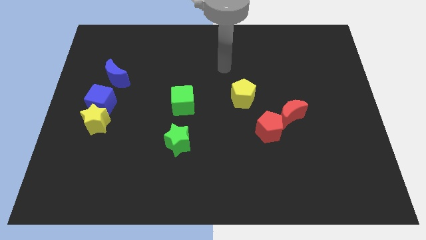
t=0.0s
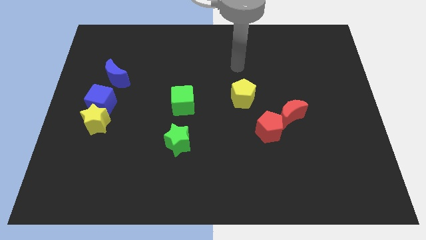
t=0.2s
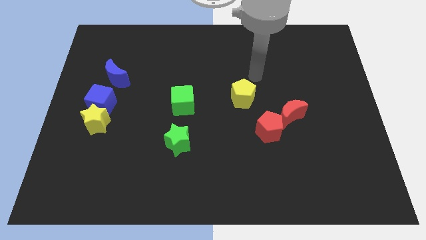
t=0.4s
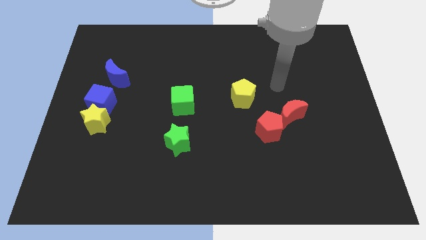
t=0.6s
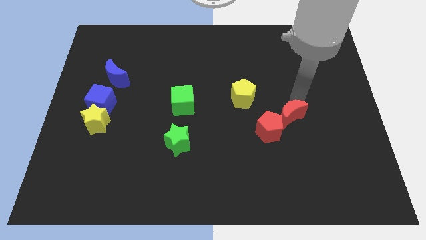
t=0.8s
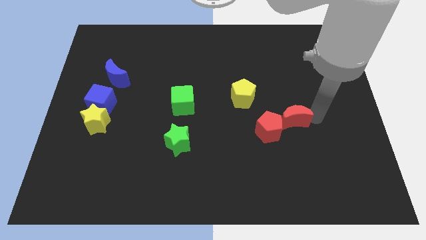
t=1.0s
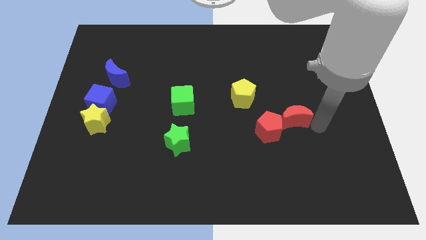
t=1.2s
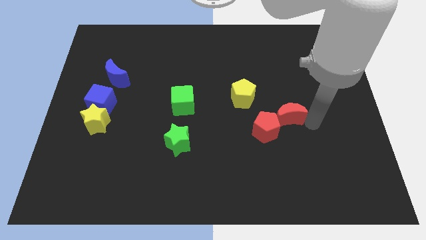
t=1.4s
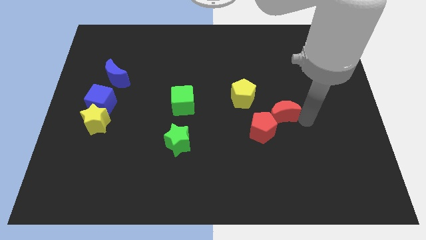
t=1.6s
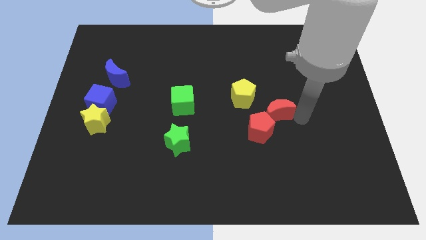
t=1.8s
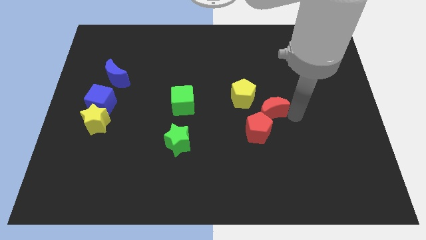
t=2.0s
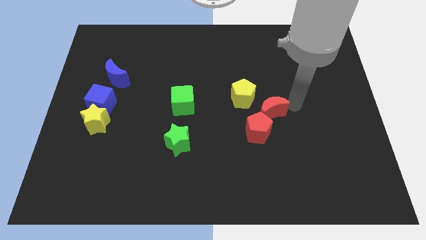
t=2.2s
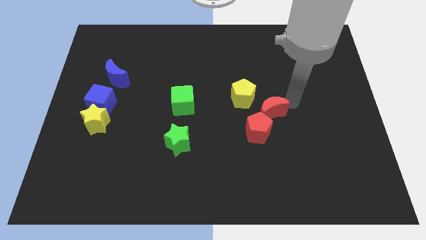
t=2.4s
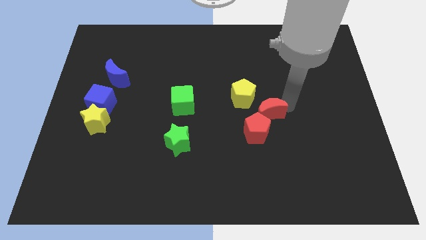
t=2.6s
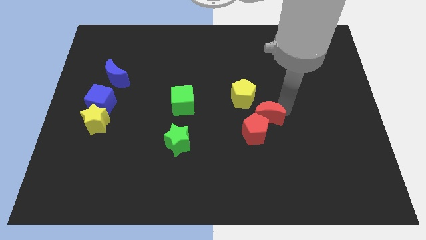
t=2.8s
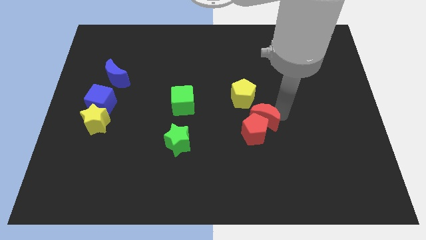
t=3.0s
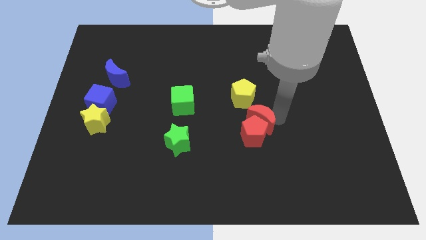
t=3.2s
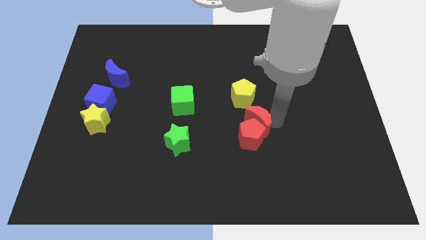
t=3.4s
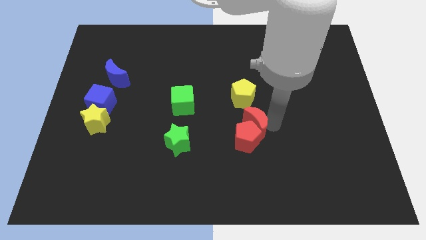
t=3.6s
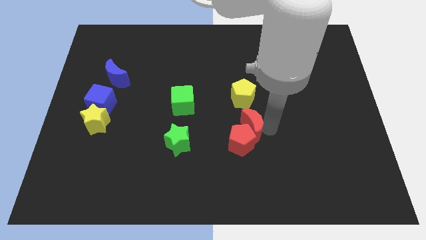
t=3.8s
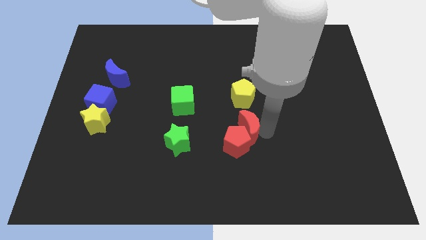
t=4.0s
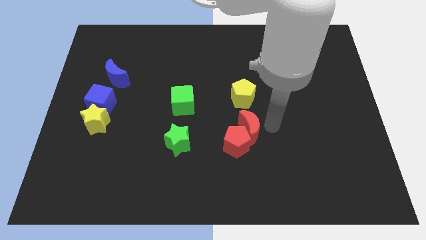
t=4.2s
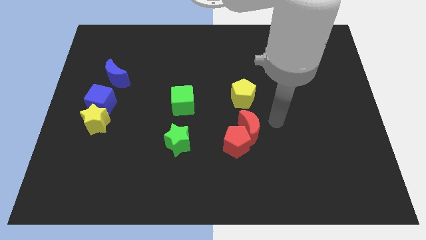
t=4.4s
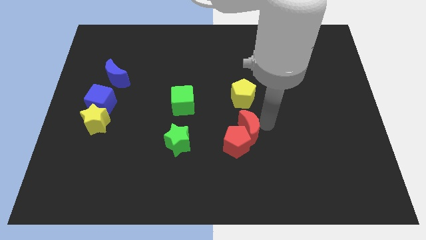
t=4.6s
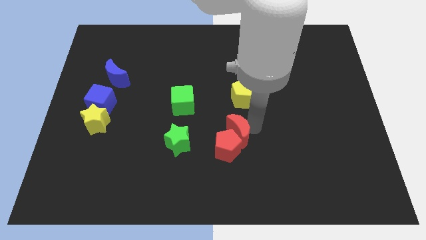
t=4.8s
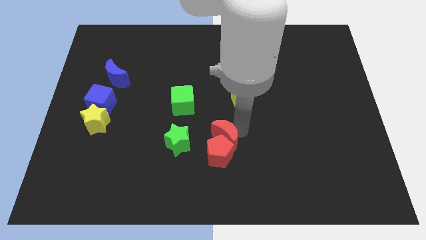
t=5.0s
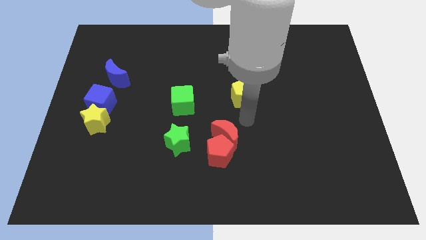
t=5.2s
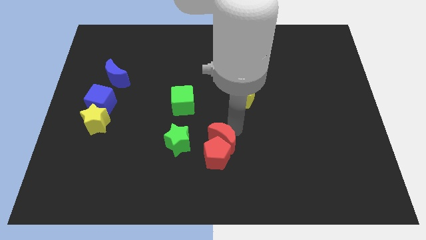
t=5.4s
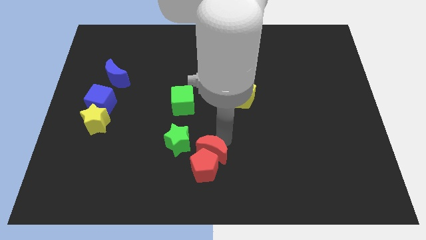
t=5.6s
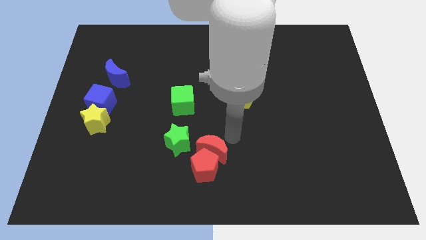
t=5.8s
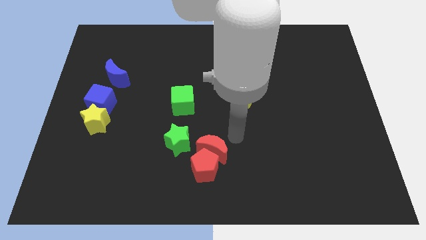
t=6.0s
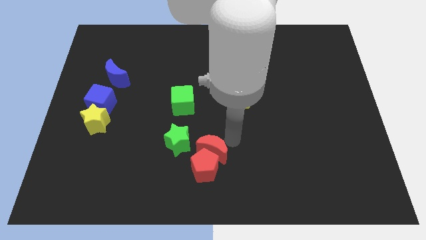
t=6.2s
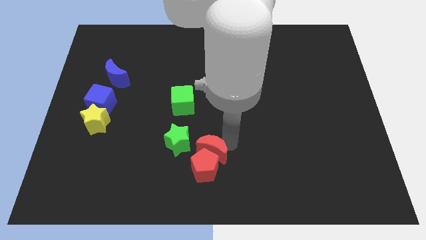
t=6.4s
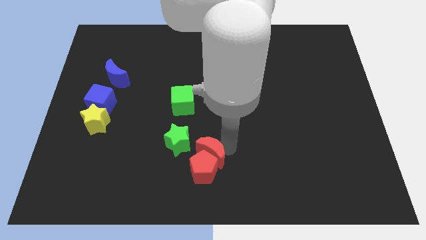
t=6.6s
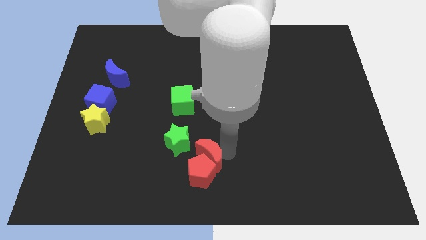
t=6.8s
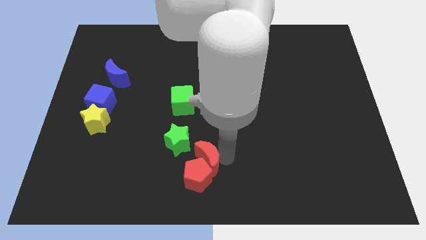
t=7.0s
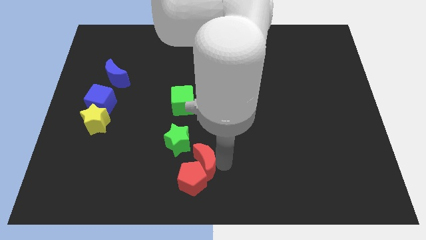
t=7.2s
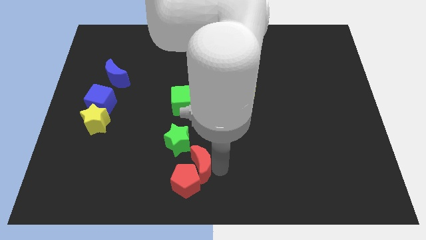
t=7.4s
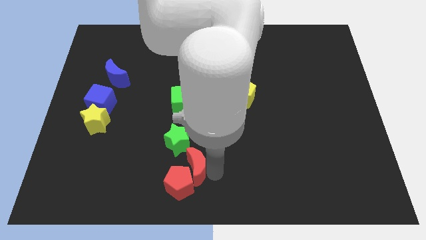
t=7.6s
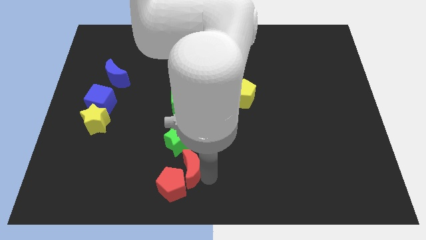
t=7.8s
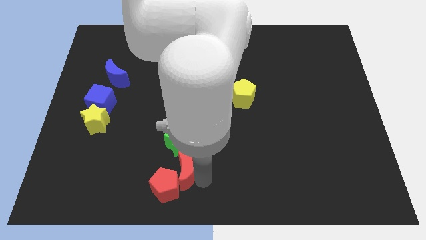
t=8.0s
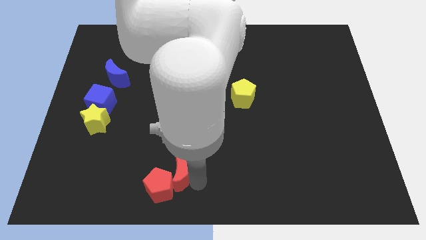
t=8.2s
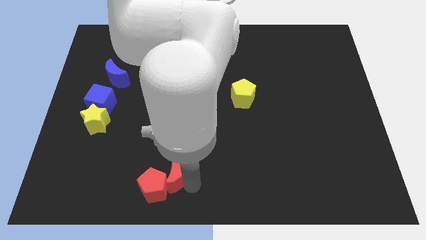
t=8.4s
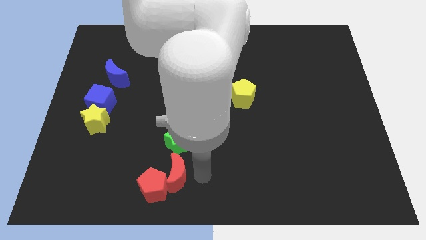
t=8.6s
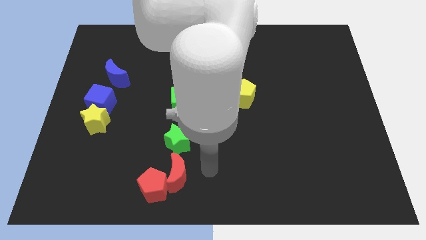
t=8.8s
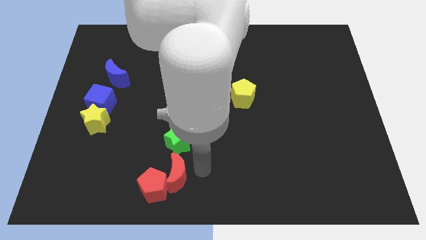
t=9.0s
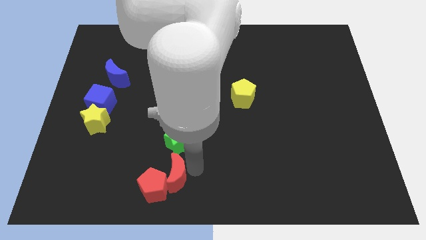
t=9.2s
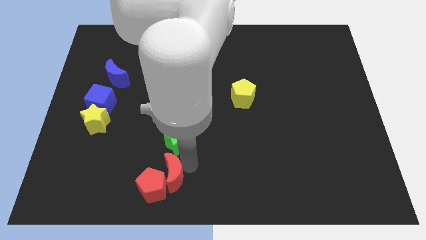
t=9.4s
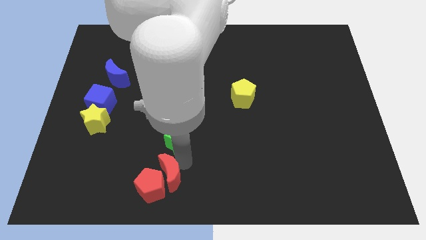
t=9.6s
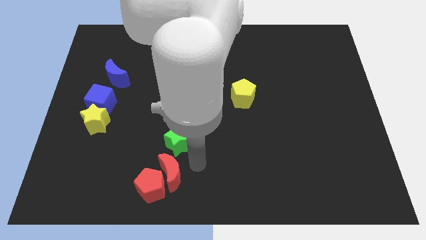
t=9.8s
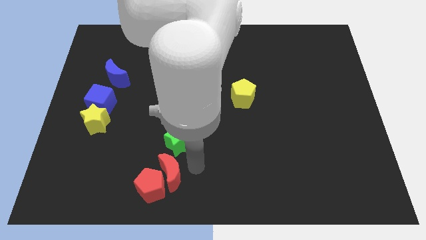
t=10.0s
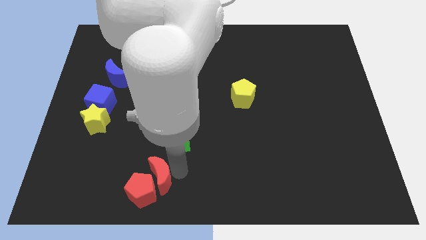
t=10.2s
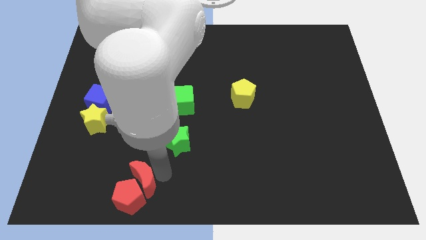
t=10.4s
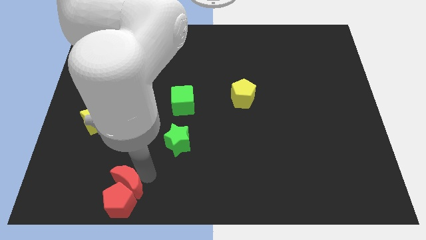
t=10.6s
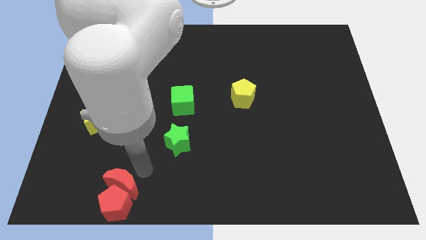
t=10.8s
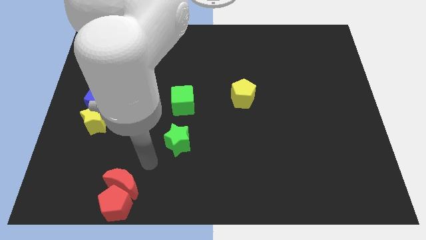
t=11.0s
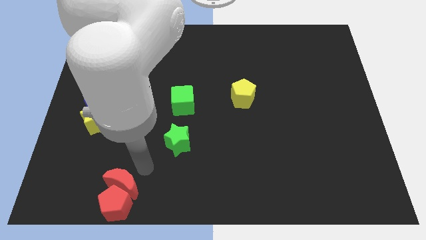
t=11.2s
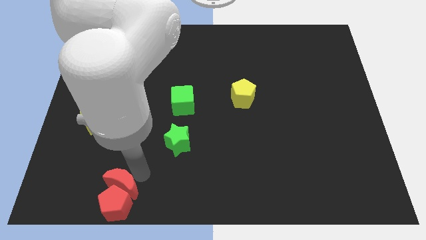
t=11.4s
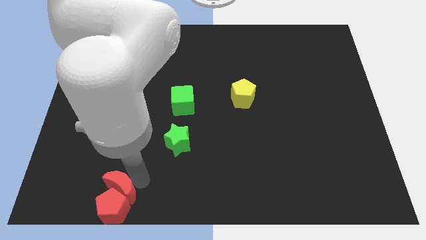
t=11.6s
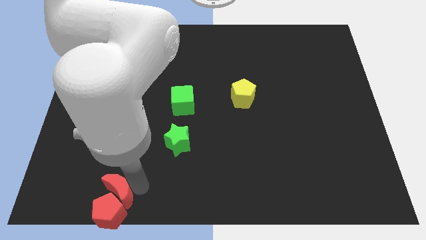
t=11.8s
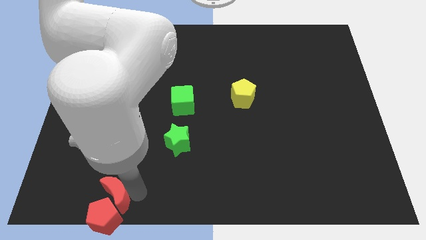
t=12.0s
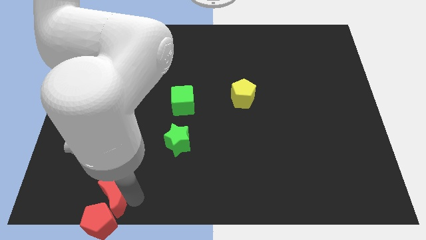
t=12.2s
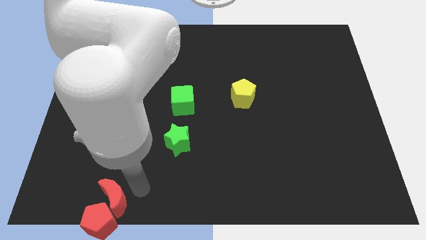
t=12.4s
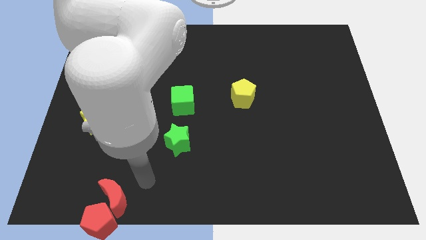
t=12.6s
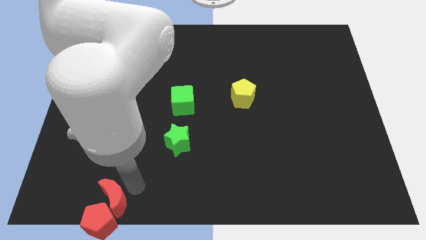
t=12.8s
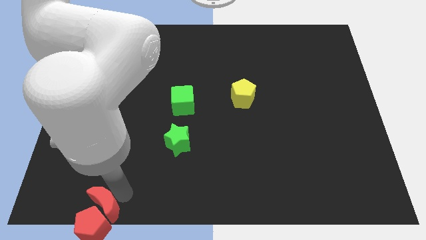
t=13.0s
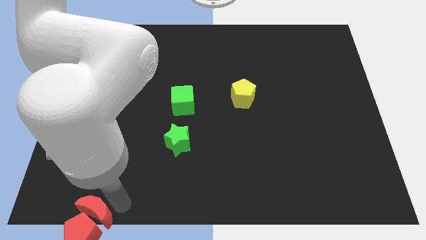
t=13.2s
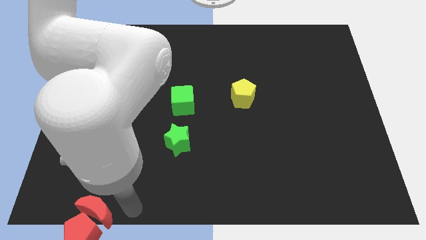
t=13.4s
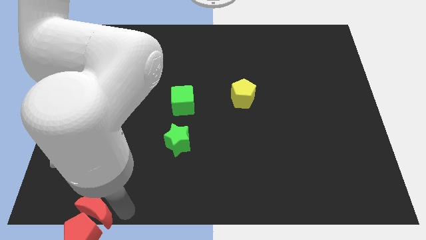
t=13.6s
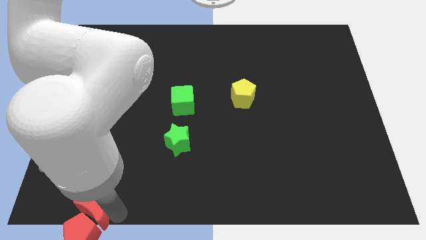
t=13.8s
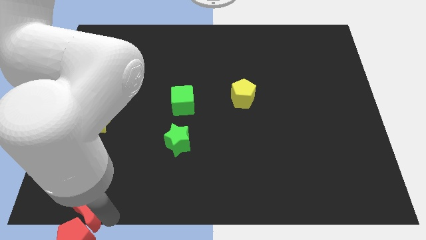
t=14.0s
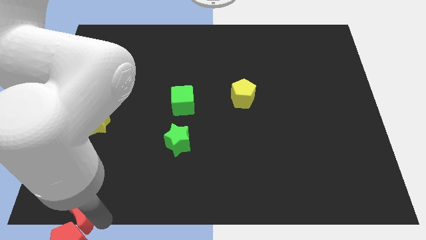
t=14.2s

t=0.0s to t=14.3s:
slide the red moon to the bottom left
